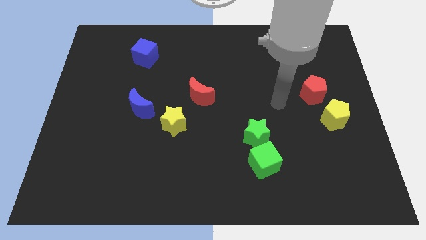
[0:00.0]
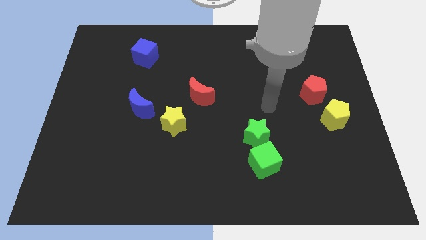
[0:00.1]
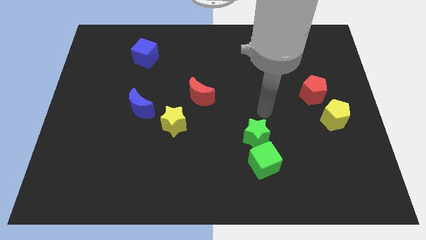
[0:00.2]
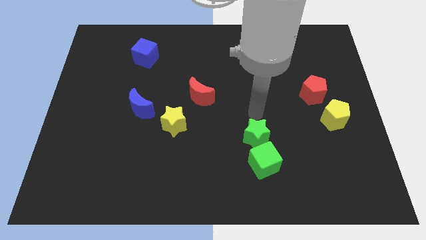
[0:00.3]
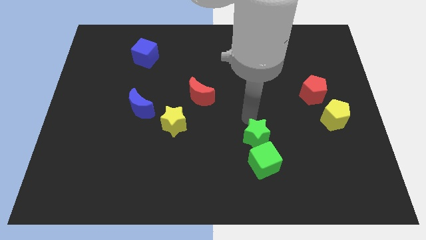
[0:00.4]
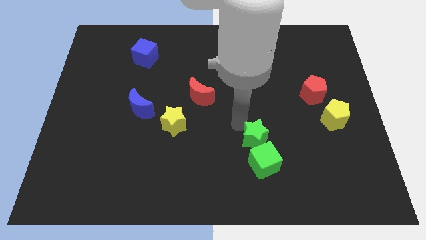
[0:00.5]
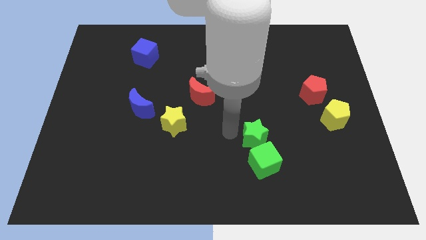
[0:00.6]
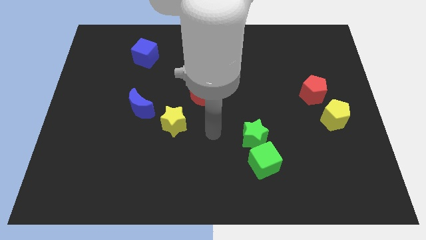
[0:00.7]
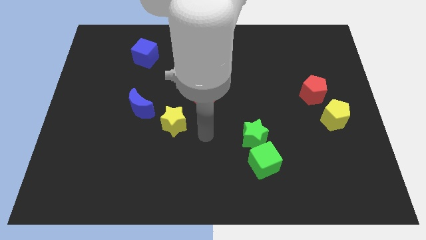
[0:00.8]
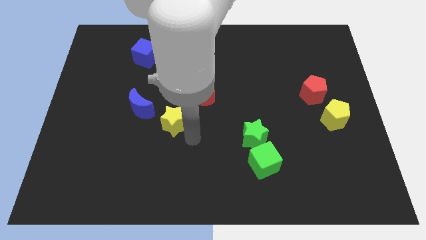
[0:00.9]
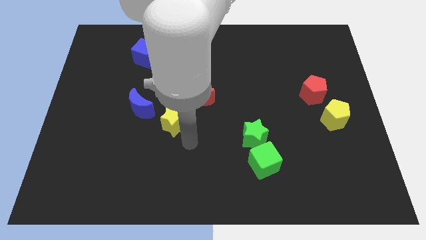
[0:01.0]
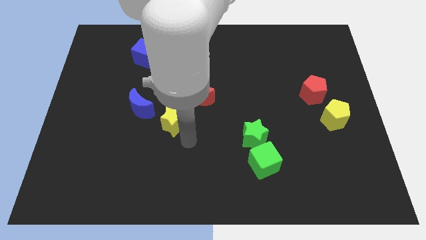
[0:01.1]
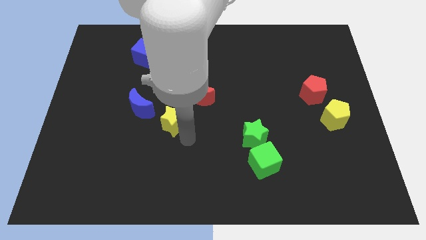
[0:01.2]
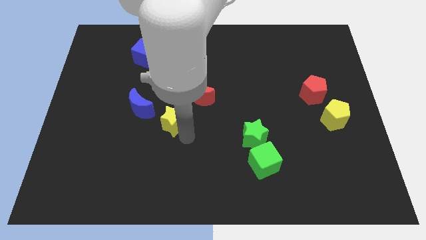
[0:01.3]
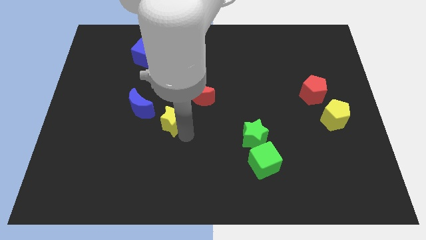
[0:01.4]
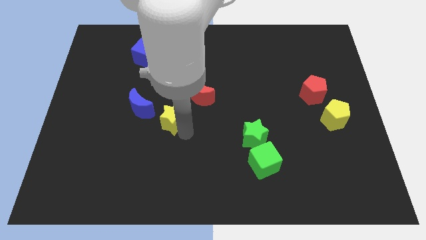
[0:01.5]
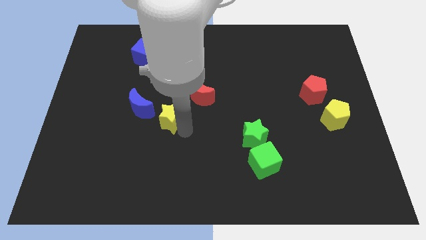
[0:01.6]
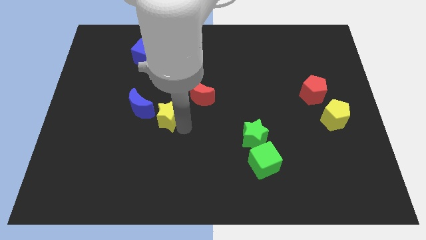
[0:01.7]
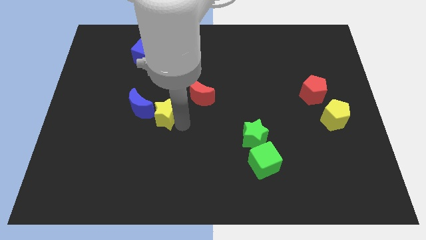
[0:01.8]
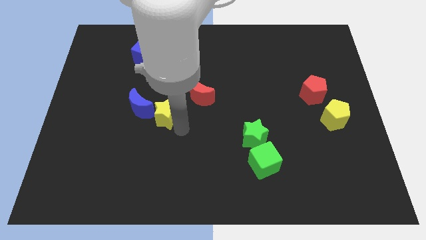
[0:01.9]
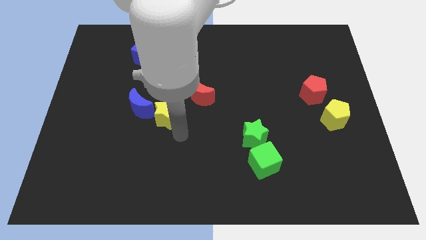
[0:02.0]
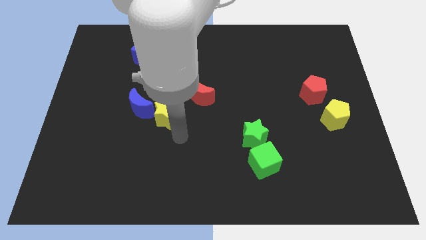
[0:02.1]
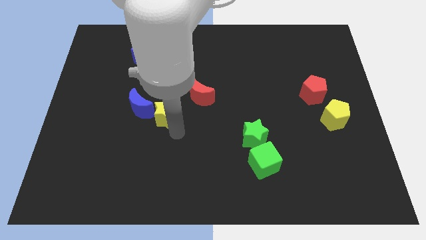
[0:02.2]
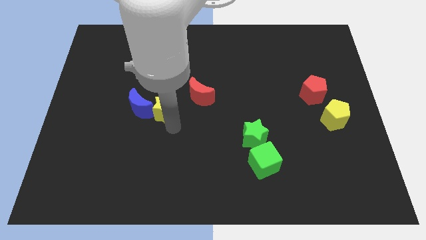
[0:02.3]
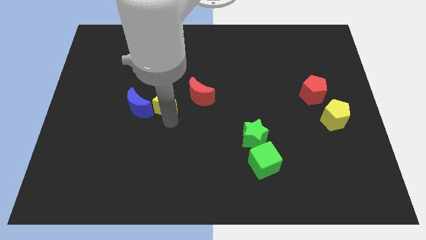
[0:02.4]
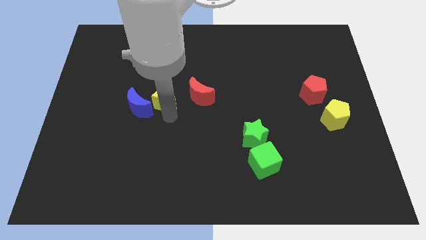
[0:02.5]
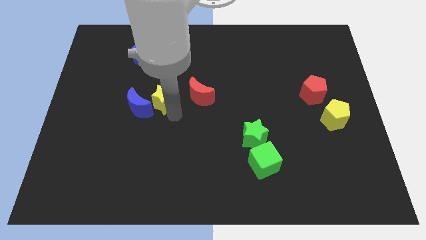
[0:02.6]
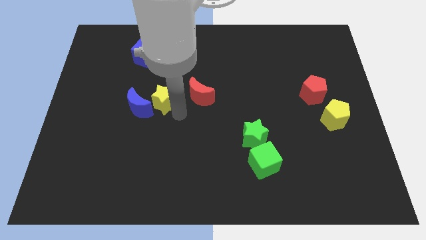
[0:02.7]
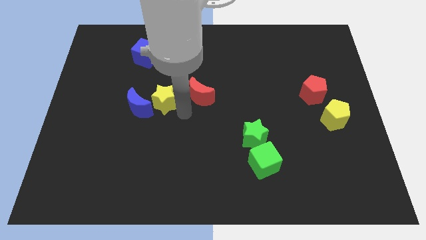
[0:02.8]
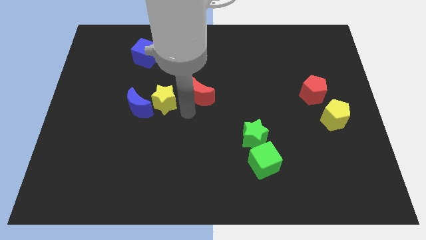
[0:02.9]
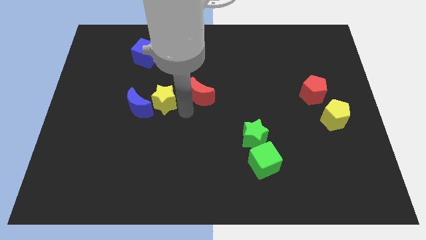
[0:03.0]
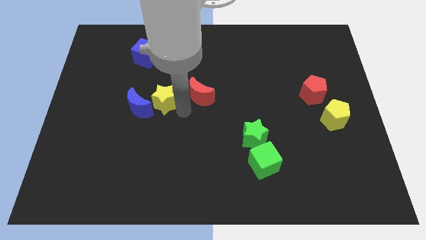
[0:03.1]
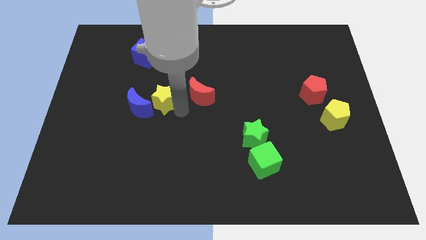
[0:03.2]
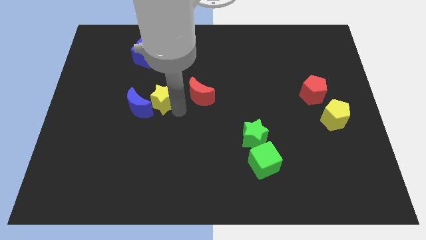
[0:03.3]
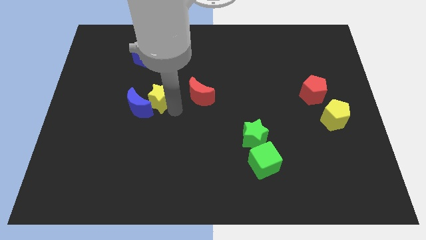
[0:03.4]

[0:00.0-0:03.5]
slightly move the yellow star up and left

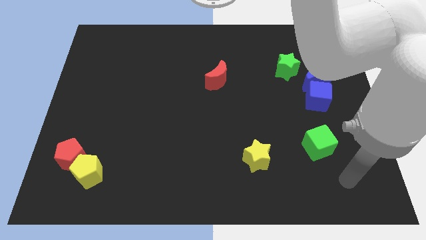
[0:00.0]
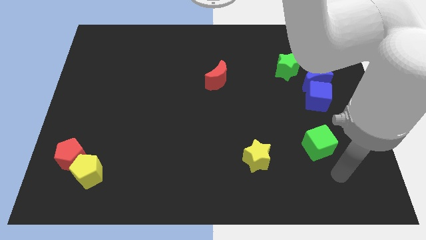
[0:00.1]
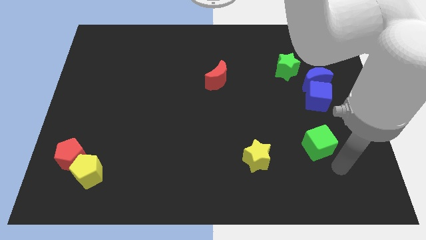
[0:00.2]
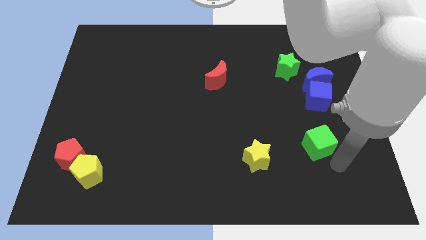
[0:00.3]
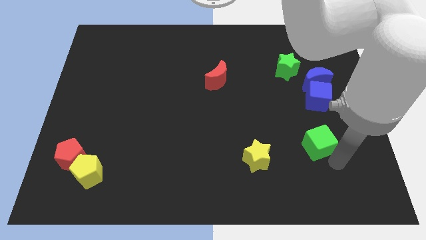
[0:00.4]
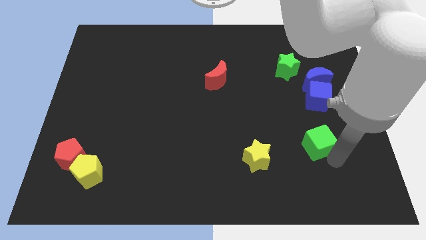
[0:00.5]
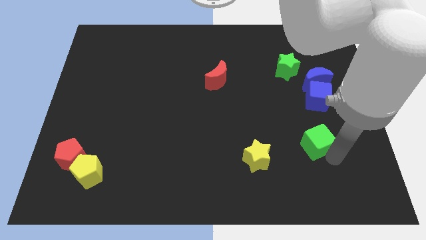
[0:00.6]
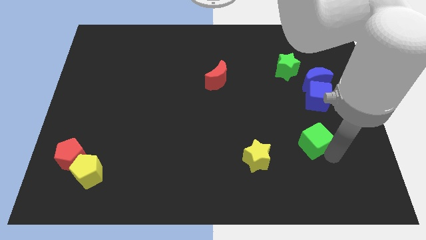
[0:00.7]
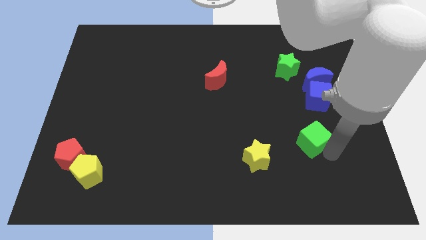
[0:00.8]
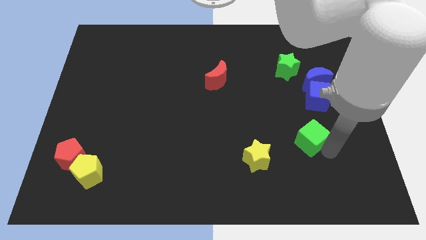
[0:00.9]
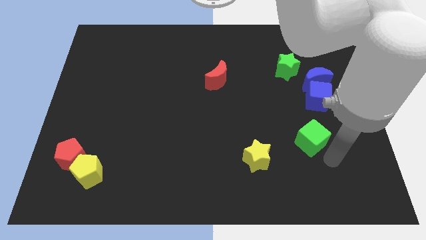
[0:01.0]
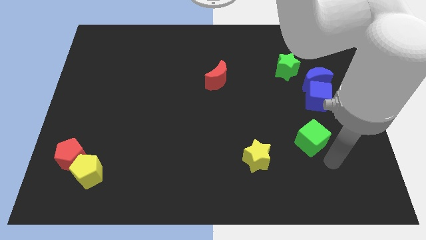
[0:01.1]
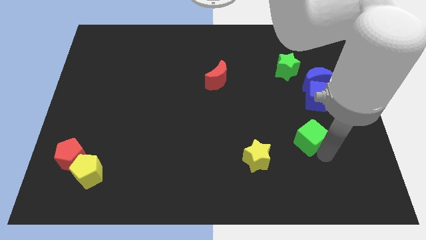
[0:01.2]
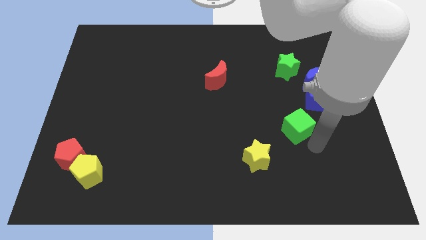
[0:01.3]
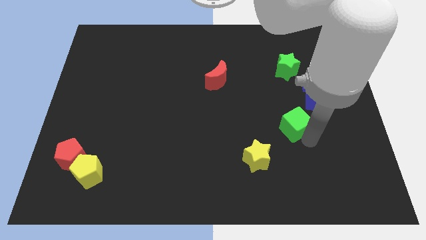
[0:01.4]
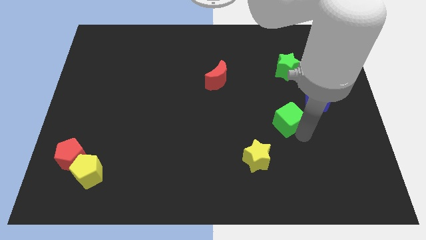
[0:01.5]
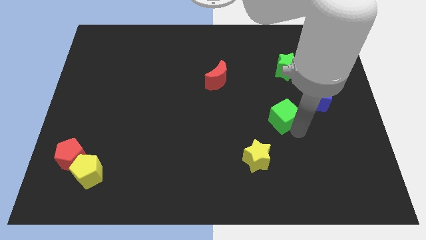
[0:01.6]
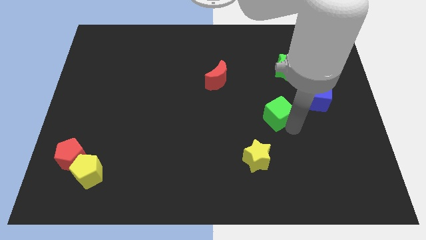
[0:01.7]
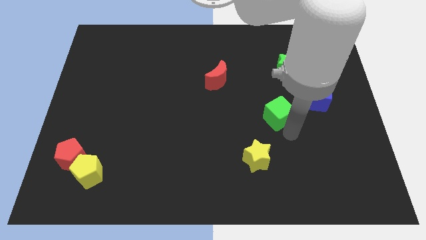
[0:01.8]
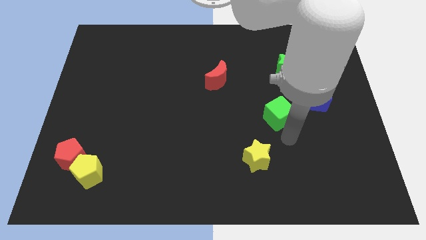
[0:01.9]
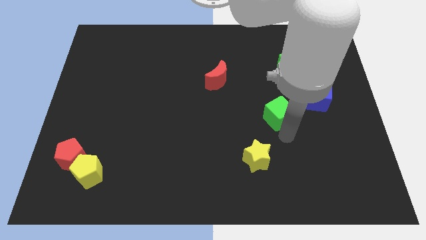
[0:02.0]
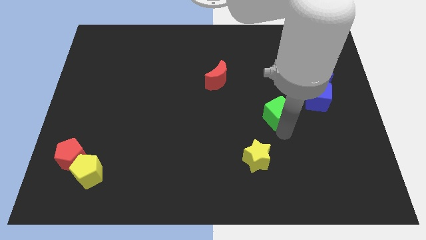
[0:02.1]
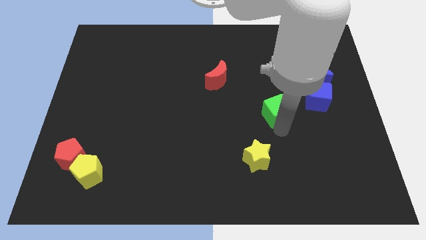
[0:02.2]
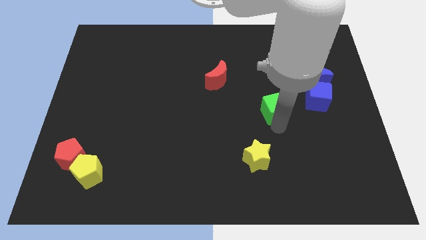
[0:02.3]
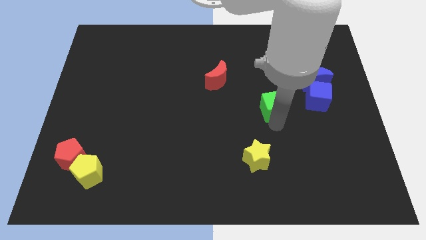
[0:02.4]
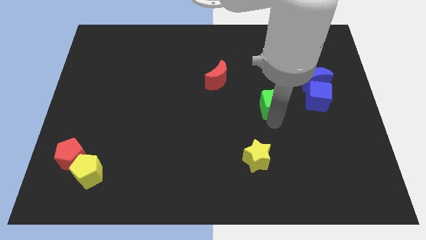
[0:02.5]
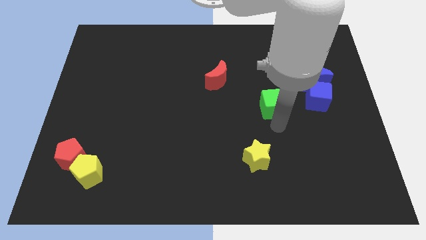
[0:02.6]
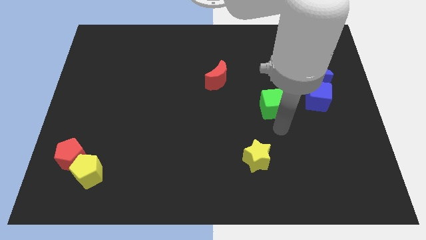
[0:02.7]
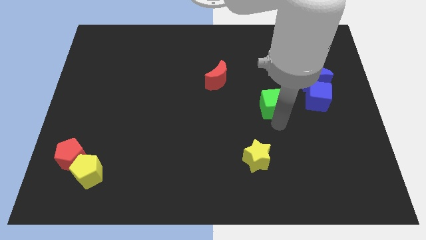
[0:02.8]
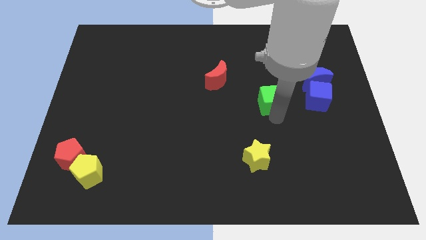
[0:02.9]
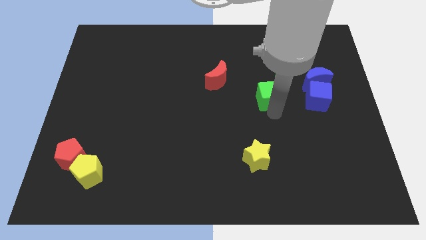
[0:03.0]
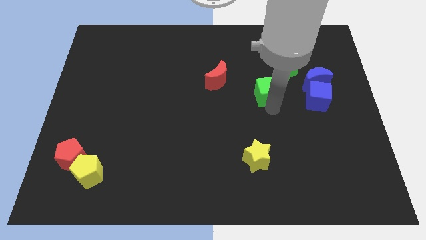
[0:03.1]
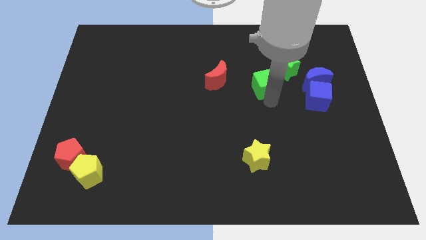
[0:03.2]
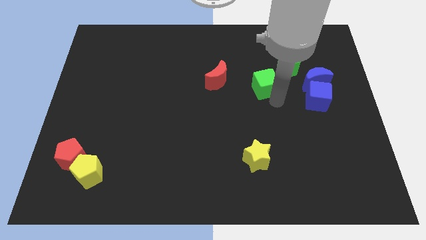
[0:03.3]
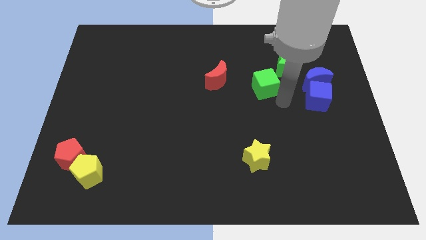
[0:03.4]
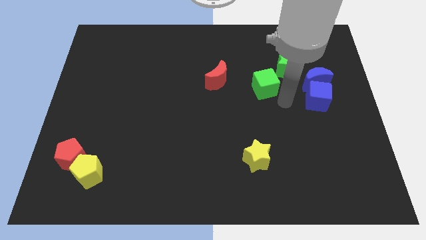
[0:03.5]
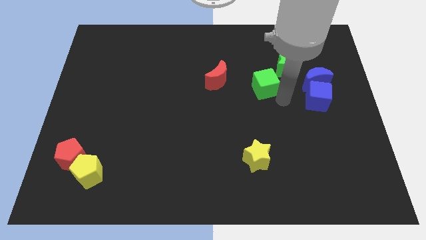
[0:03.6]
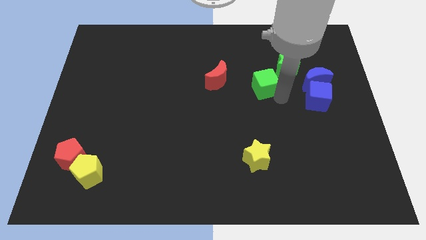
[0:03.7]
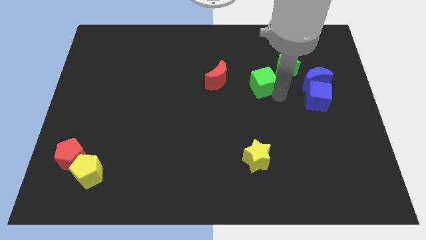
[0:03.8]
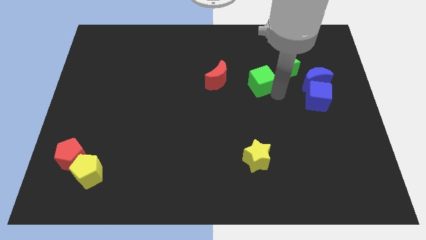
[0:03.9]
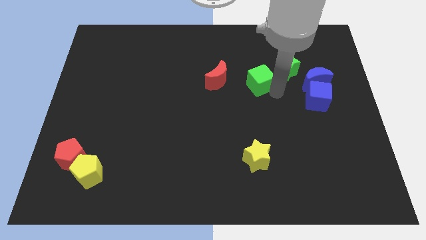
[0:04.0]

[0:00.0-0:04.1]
move the green cube up and then to the left
